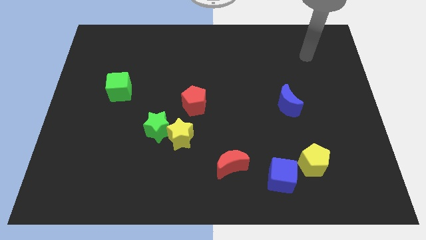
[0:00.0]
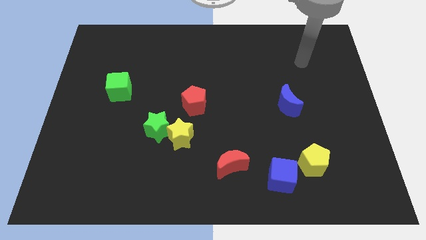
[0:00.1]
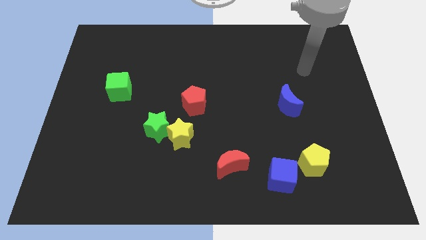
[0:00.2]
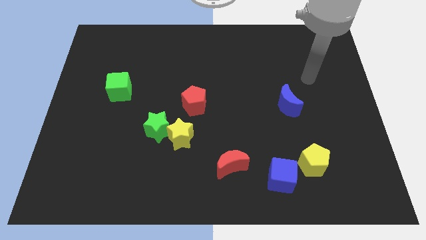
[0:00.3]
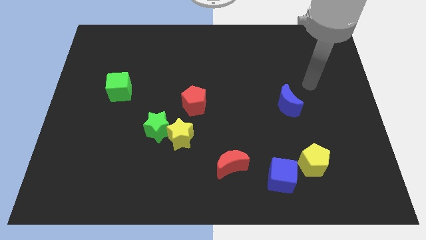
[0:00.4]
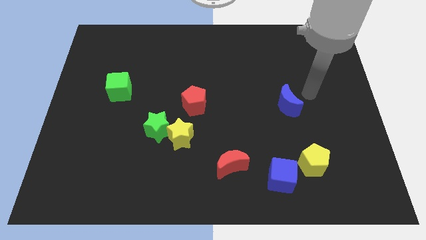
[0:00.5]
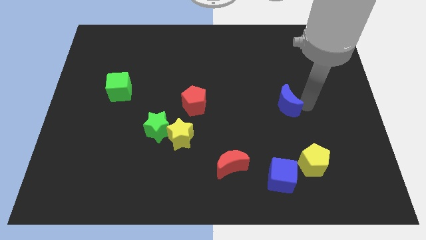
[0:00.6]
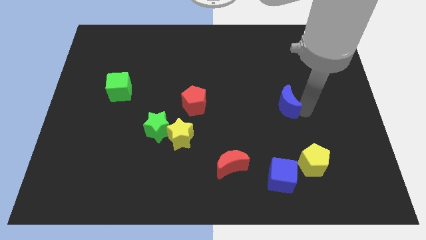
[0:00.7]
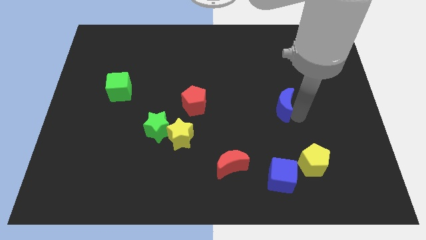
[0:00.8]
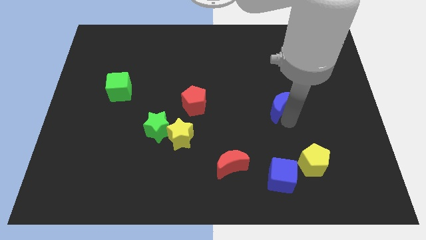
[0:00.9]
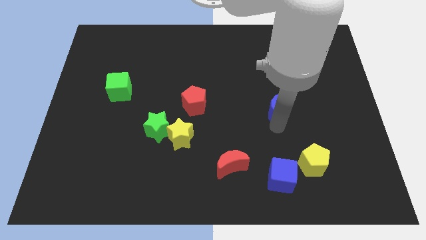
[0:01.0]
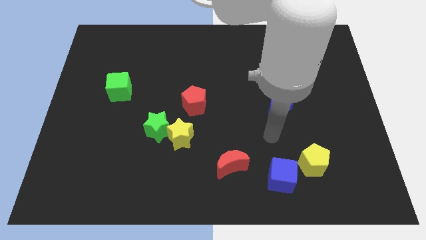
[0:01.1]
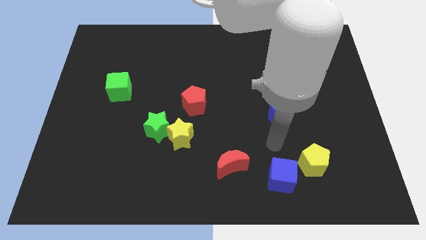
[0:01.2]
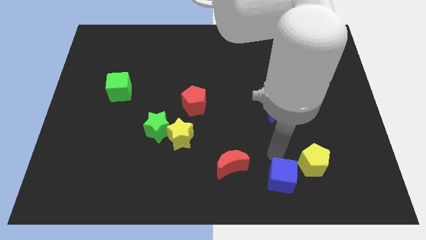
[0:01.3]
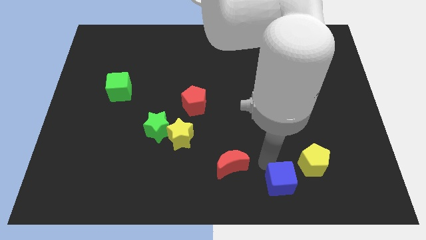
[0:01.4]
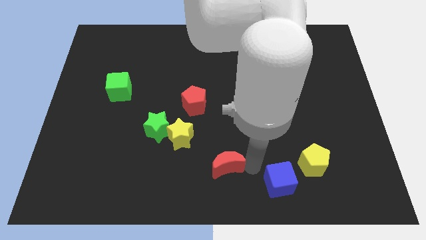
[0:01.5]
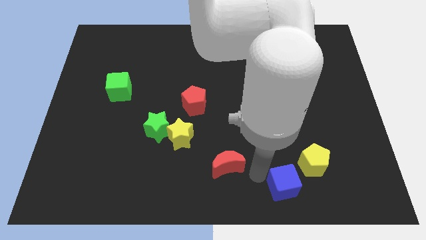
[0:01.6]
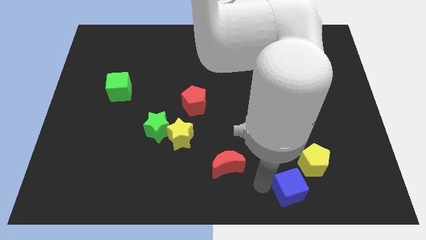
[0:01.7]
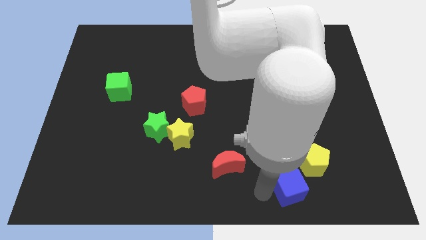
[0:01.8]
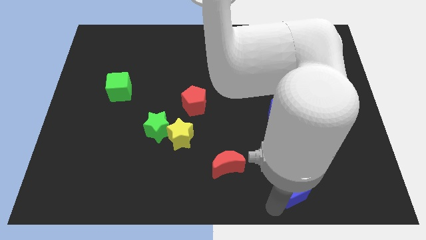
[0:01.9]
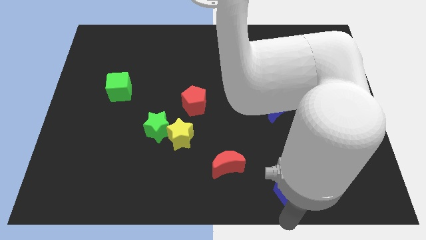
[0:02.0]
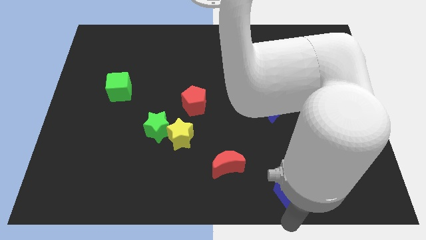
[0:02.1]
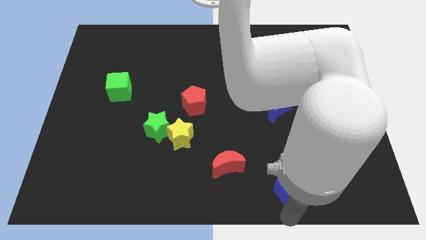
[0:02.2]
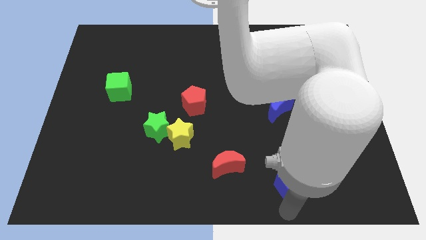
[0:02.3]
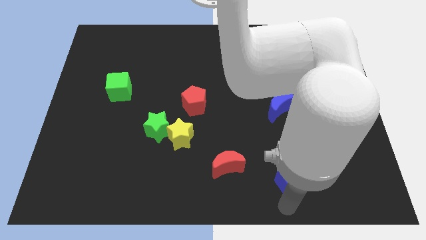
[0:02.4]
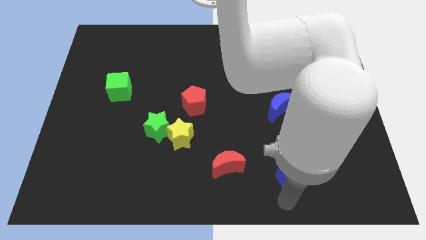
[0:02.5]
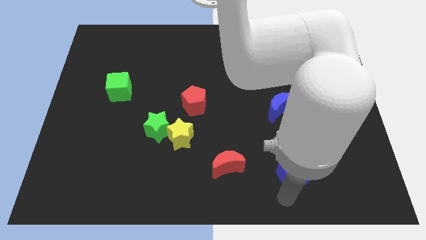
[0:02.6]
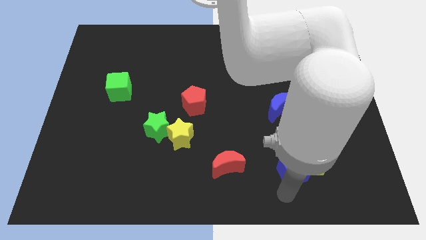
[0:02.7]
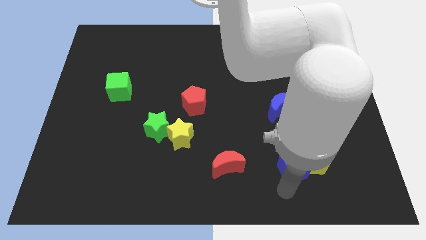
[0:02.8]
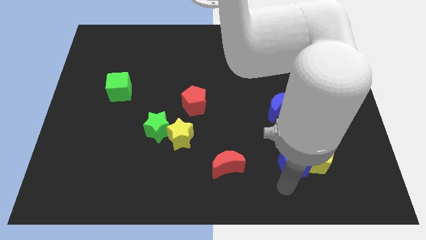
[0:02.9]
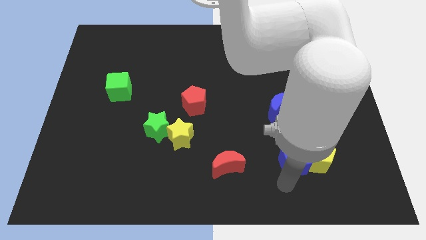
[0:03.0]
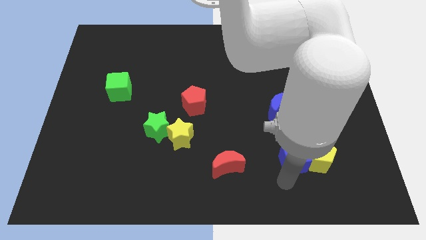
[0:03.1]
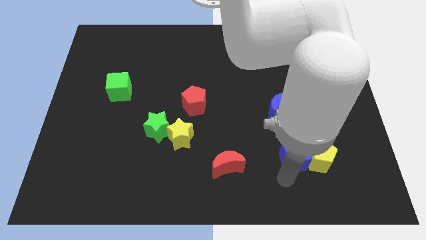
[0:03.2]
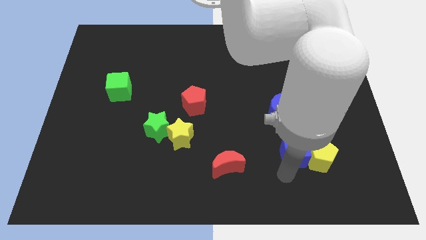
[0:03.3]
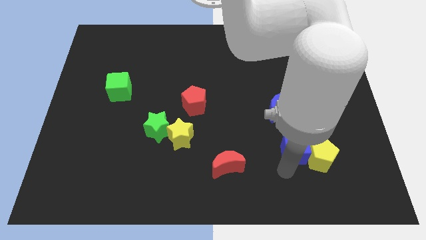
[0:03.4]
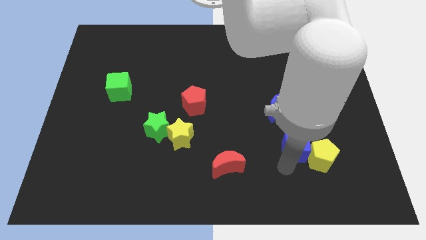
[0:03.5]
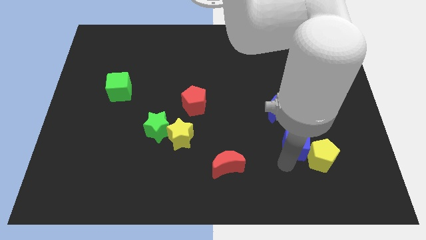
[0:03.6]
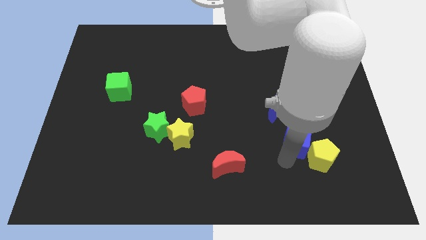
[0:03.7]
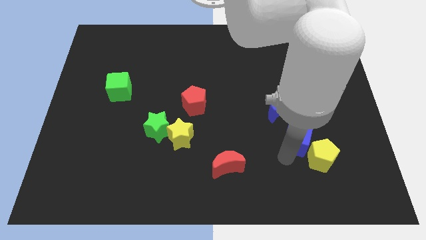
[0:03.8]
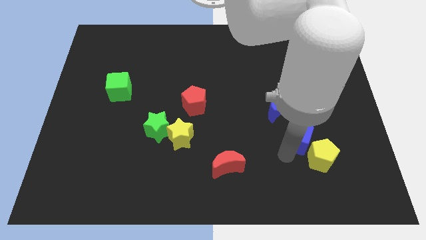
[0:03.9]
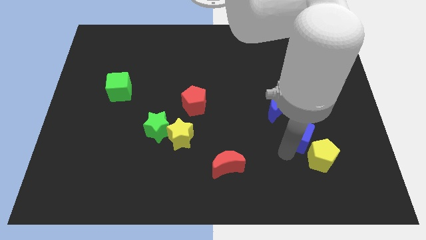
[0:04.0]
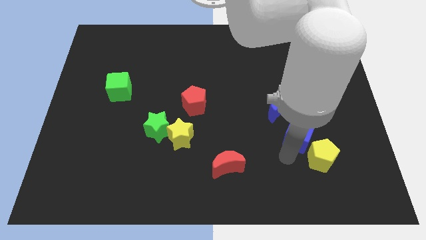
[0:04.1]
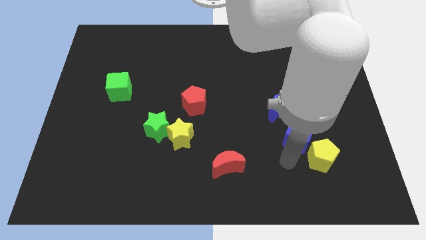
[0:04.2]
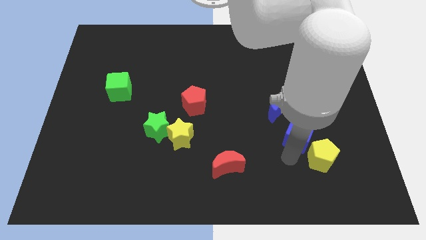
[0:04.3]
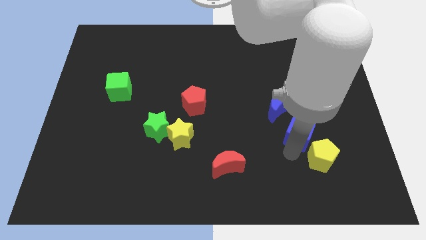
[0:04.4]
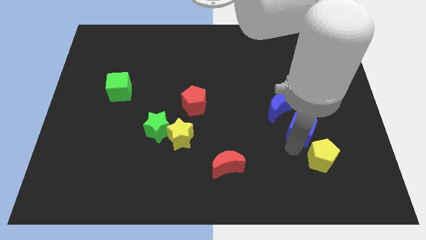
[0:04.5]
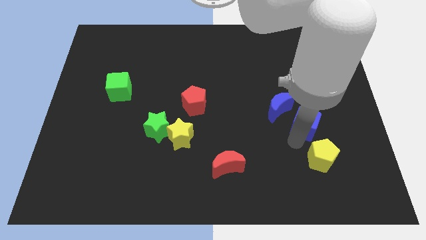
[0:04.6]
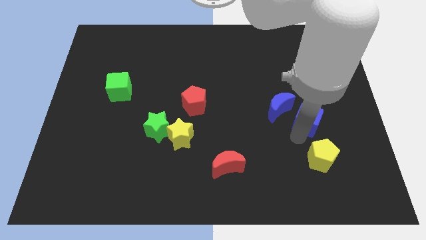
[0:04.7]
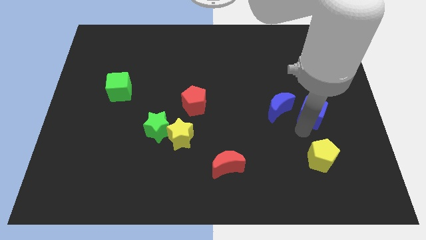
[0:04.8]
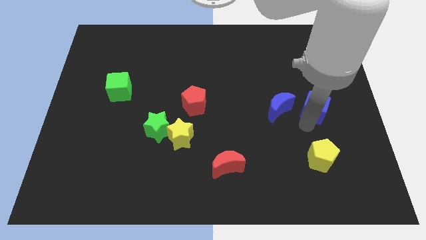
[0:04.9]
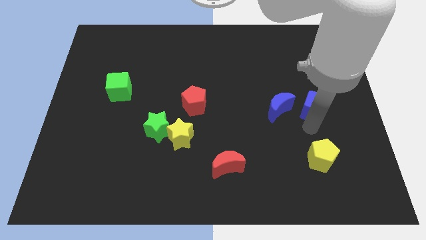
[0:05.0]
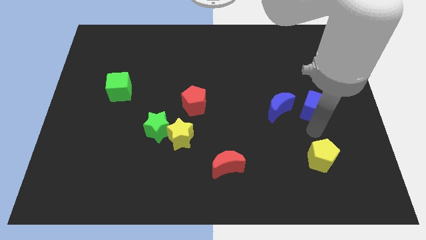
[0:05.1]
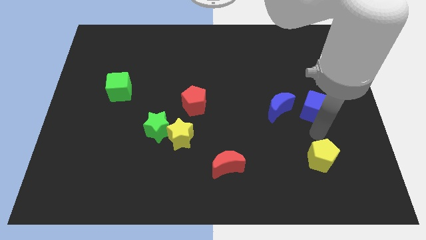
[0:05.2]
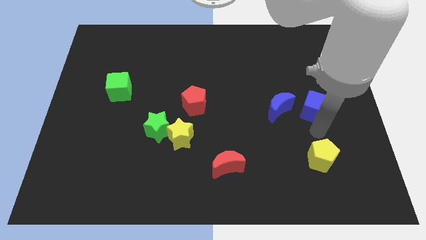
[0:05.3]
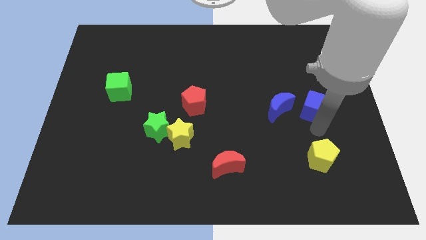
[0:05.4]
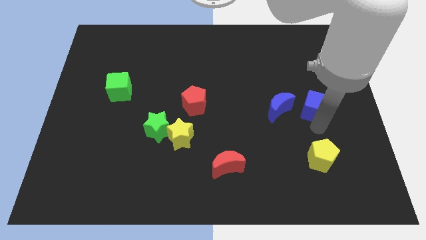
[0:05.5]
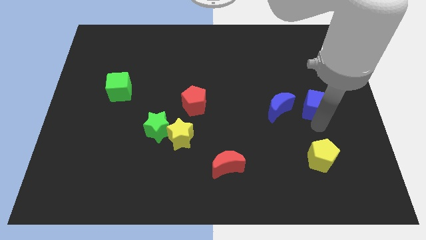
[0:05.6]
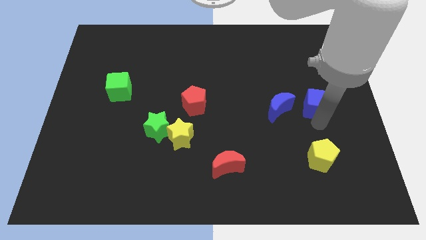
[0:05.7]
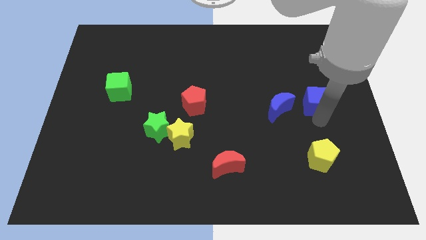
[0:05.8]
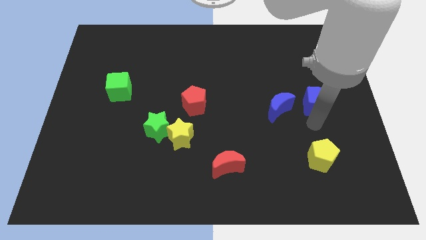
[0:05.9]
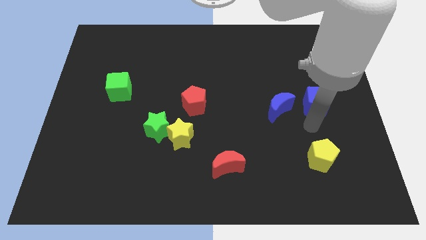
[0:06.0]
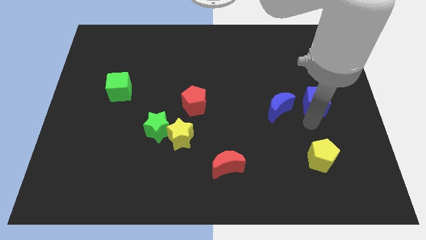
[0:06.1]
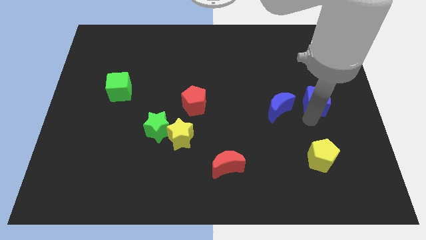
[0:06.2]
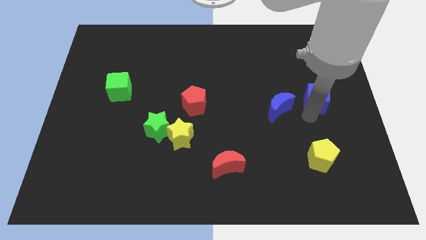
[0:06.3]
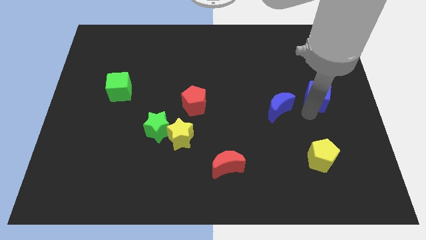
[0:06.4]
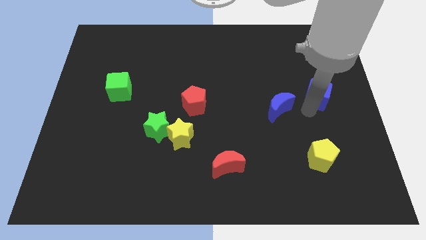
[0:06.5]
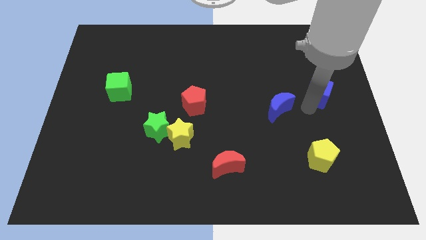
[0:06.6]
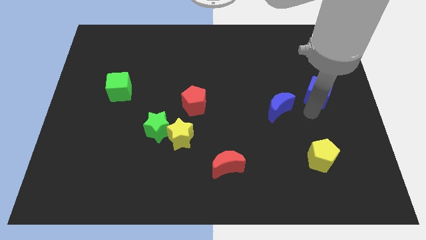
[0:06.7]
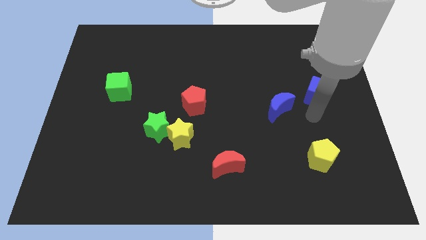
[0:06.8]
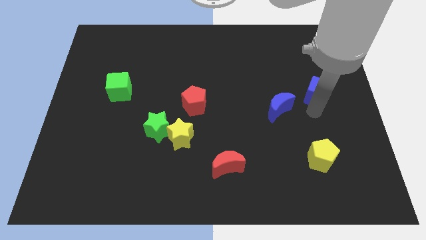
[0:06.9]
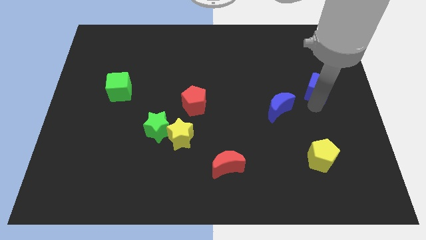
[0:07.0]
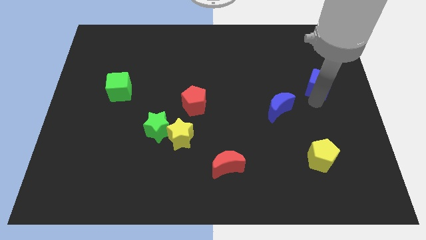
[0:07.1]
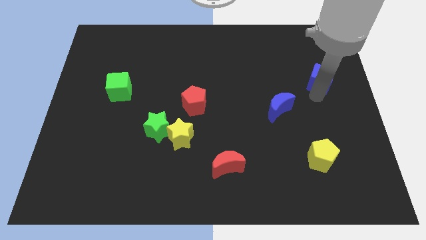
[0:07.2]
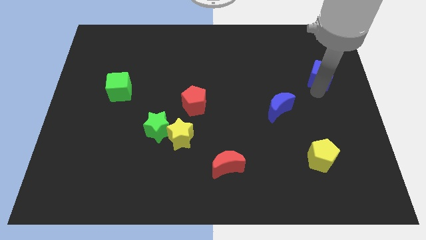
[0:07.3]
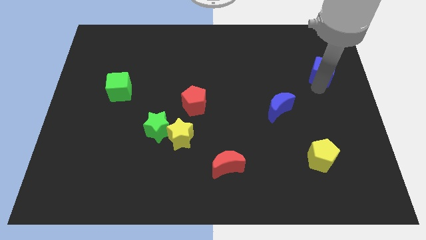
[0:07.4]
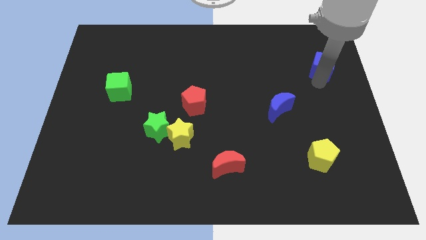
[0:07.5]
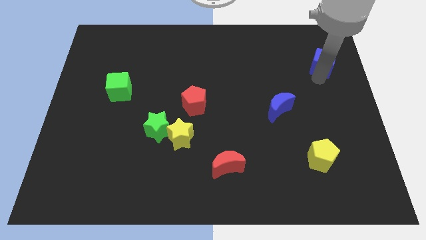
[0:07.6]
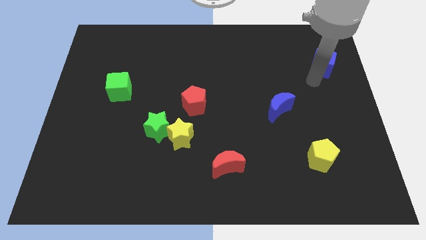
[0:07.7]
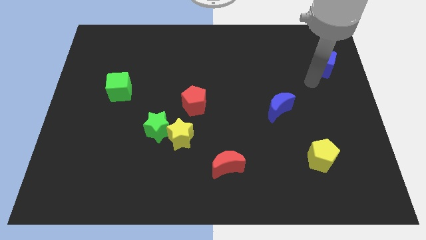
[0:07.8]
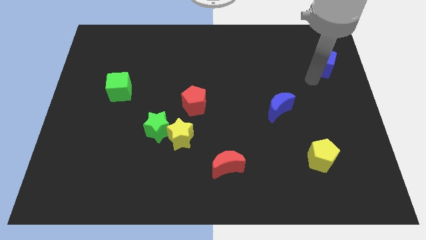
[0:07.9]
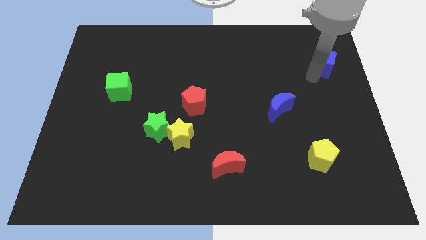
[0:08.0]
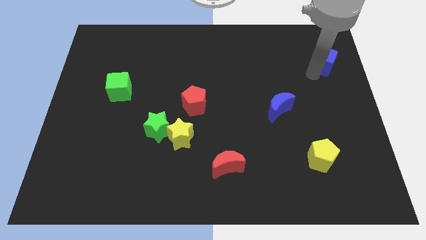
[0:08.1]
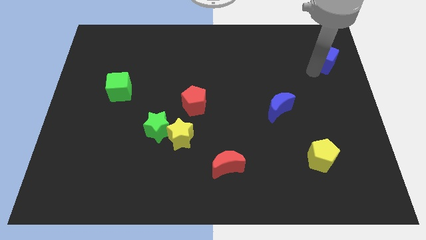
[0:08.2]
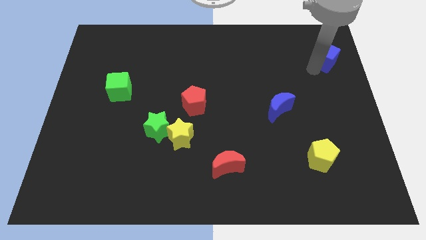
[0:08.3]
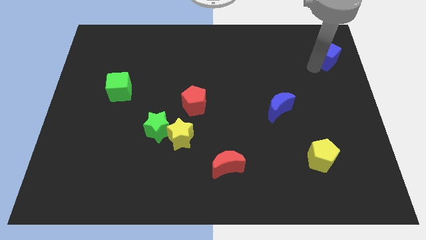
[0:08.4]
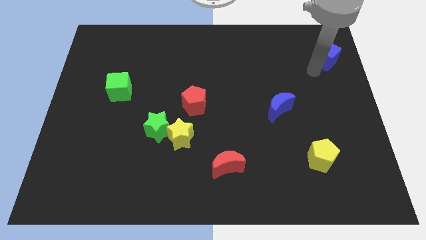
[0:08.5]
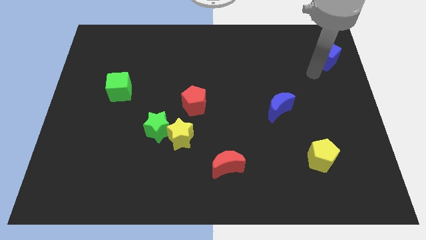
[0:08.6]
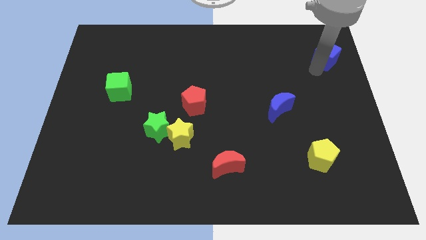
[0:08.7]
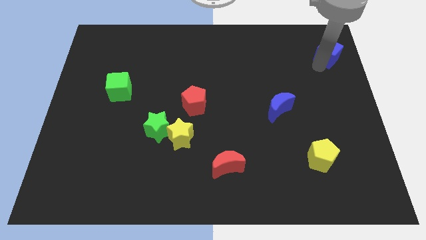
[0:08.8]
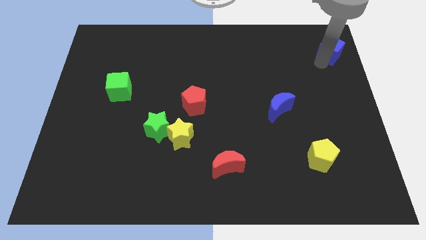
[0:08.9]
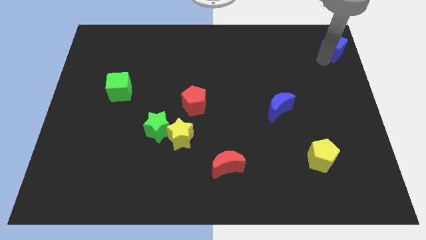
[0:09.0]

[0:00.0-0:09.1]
move the blue cube to the top right of the board
